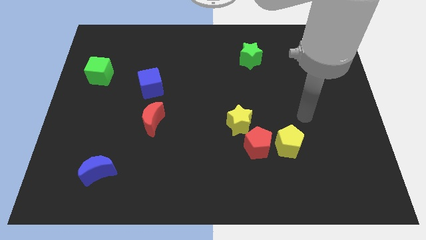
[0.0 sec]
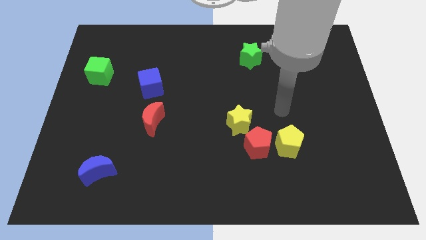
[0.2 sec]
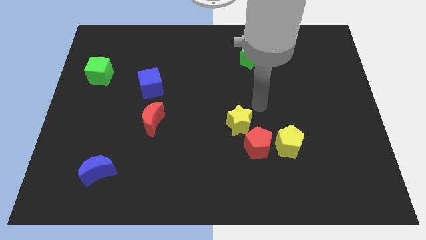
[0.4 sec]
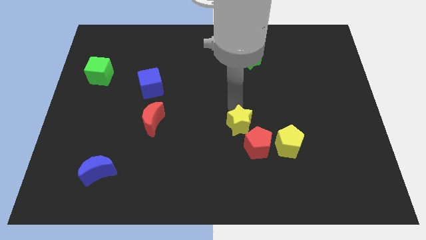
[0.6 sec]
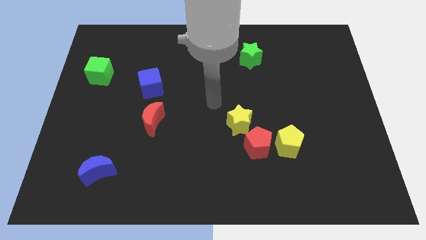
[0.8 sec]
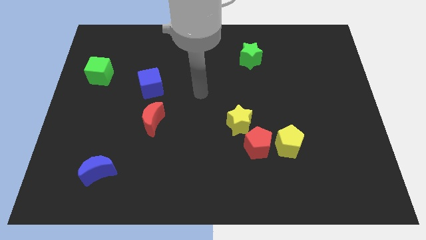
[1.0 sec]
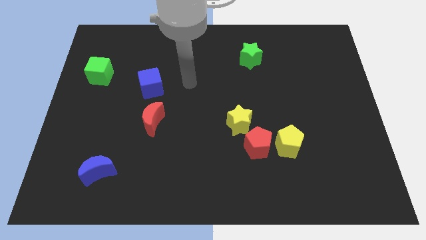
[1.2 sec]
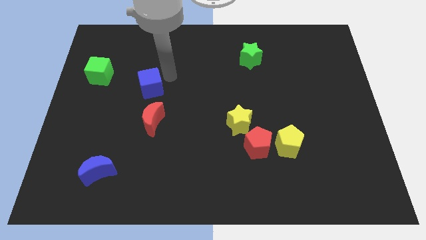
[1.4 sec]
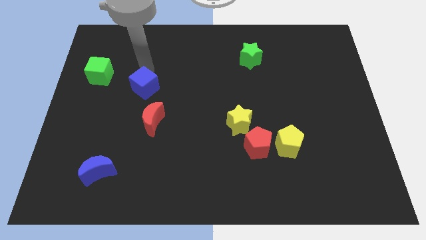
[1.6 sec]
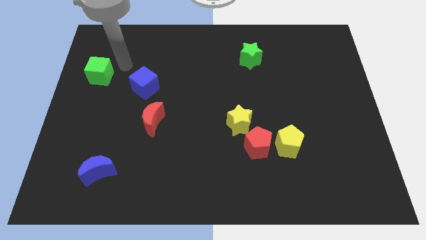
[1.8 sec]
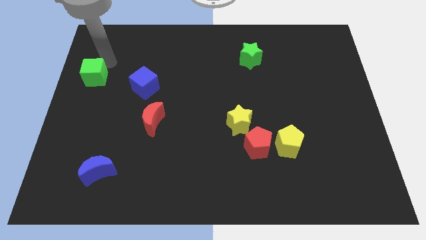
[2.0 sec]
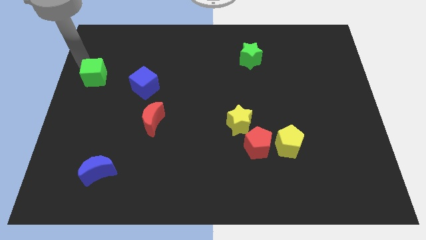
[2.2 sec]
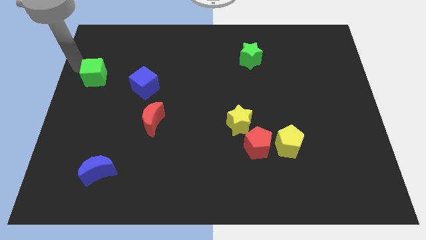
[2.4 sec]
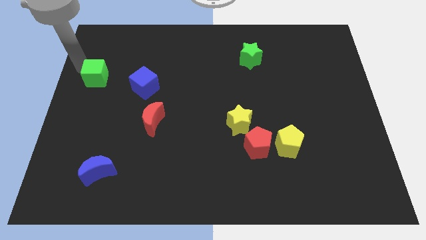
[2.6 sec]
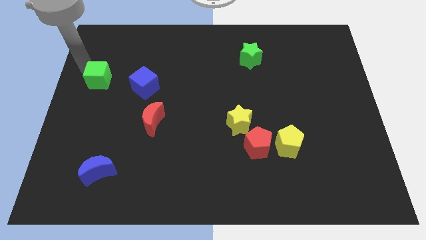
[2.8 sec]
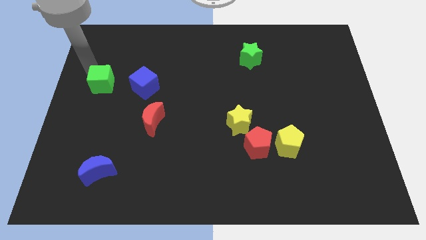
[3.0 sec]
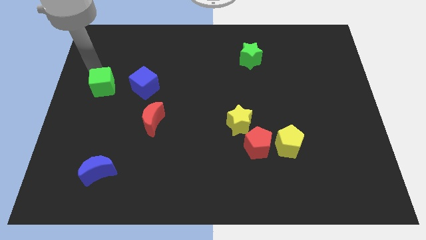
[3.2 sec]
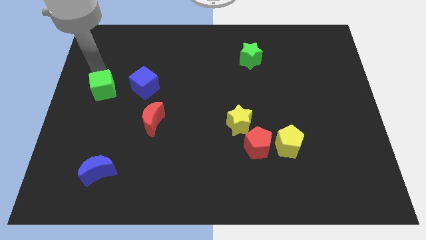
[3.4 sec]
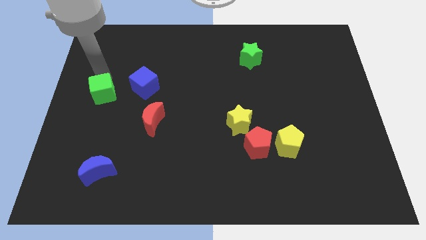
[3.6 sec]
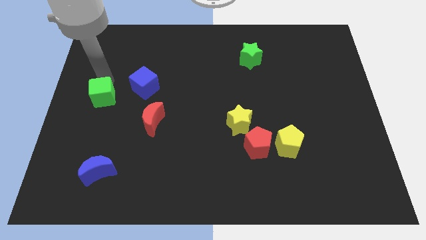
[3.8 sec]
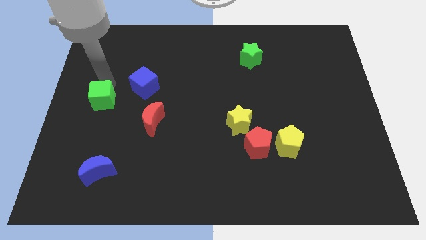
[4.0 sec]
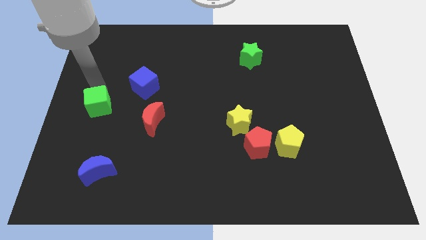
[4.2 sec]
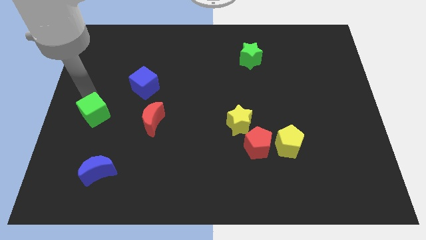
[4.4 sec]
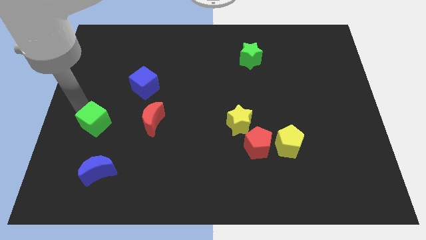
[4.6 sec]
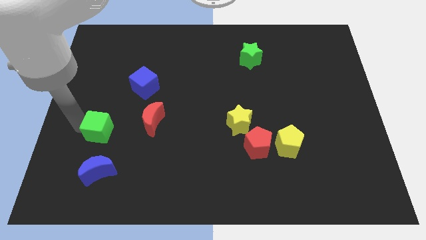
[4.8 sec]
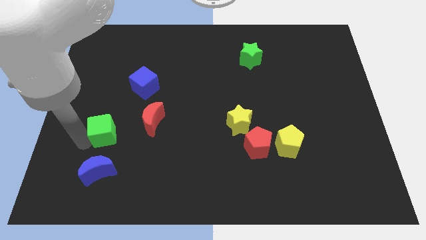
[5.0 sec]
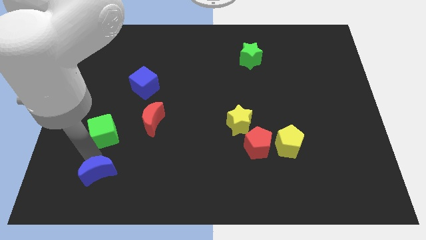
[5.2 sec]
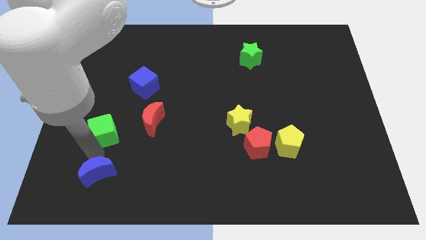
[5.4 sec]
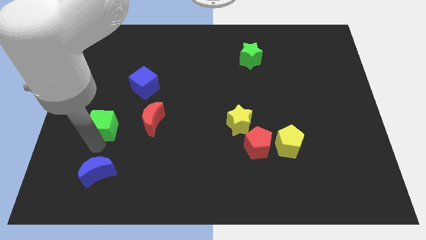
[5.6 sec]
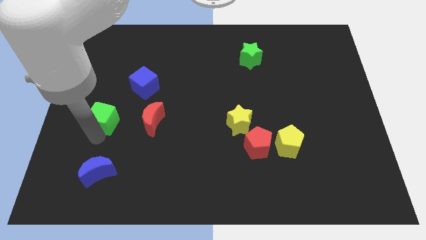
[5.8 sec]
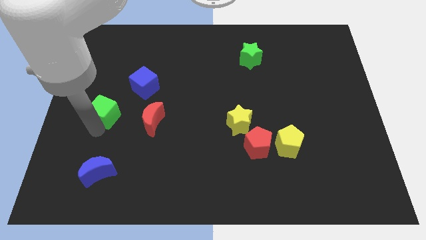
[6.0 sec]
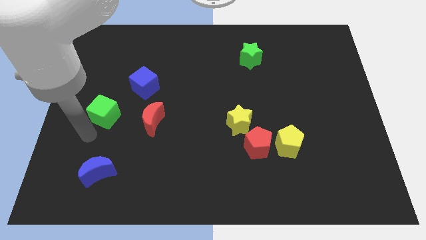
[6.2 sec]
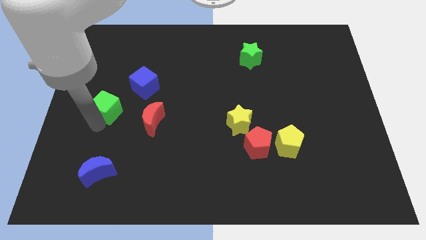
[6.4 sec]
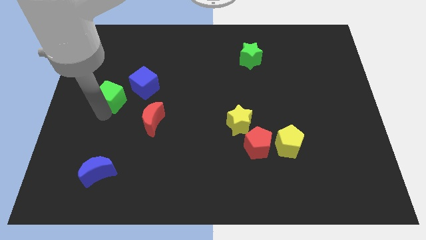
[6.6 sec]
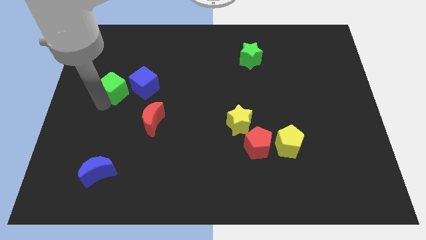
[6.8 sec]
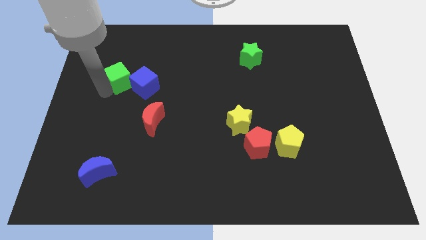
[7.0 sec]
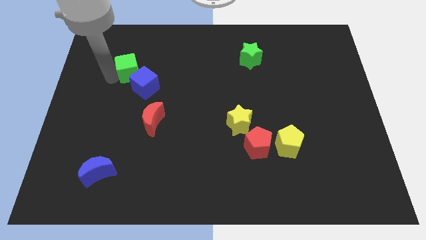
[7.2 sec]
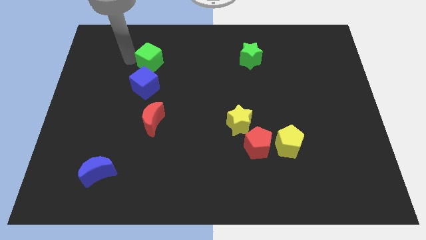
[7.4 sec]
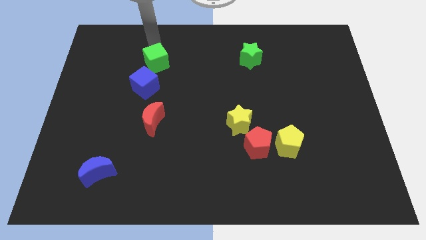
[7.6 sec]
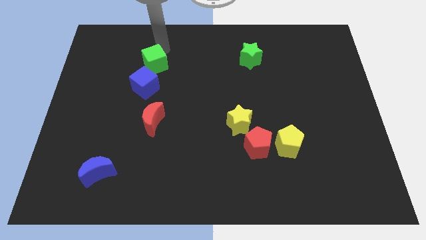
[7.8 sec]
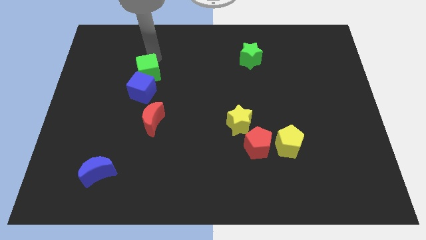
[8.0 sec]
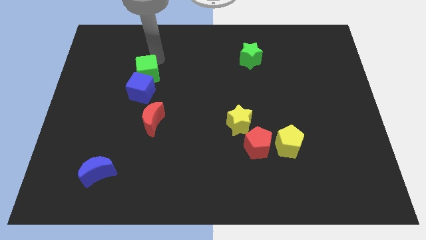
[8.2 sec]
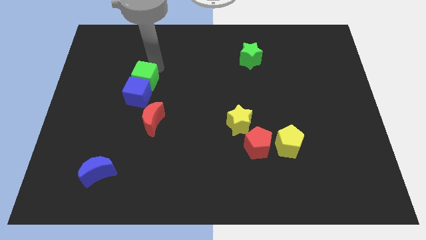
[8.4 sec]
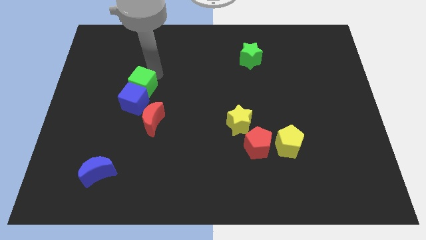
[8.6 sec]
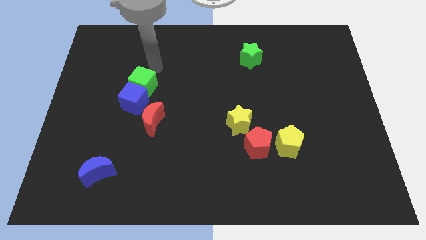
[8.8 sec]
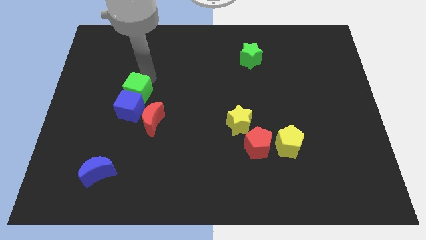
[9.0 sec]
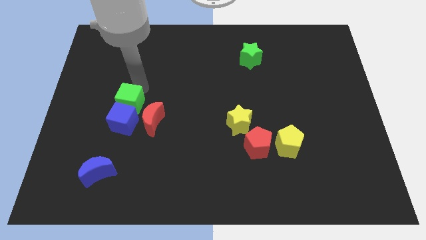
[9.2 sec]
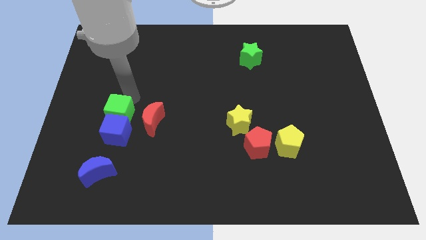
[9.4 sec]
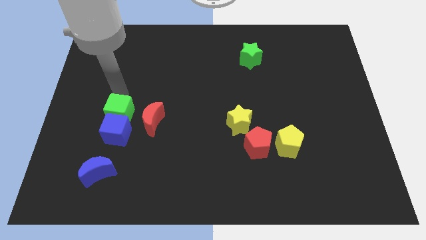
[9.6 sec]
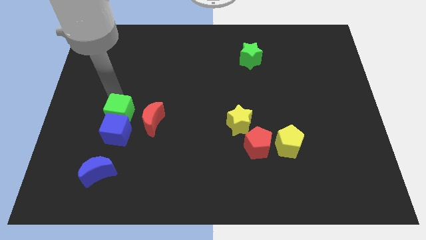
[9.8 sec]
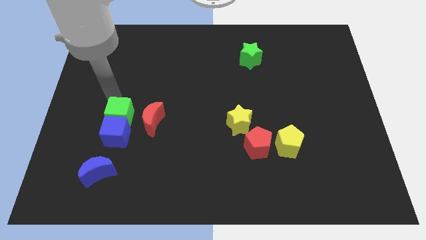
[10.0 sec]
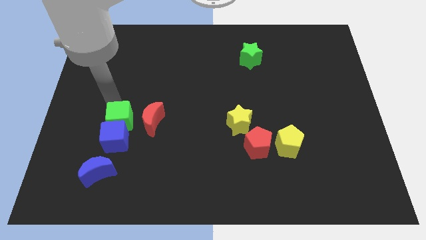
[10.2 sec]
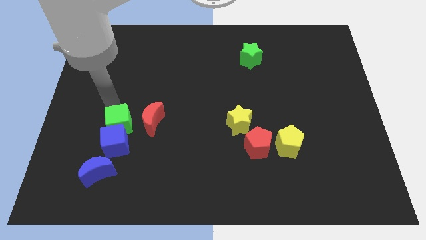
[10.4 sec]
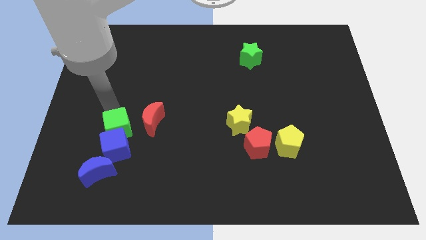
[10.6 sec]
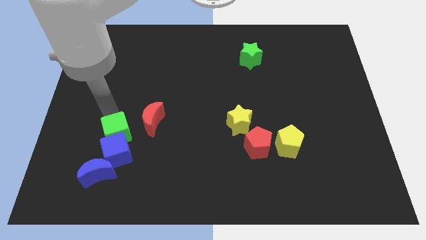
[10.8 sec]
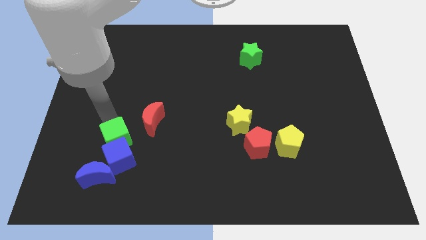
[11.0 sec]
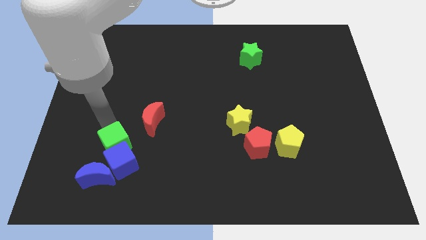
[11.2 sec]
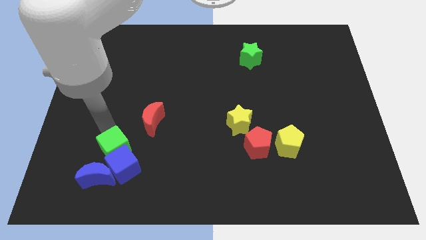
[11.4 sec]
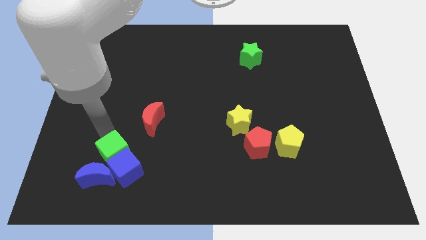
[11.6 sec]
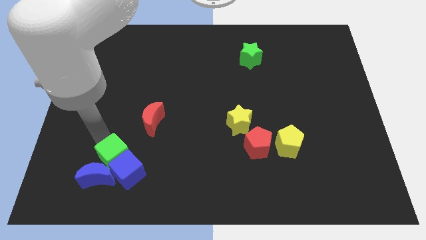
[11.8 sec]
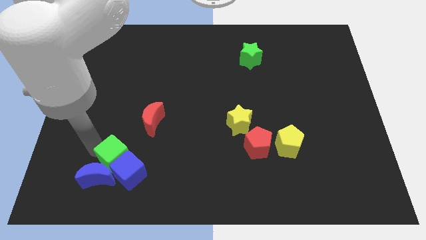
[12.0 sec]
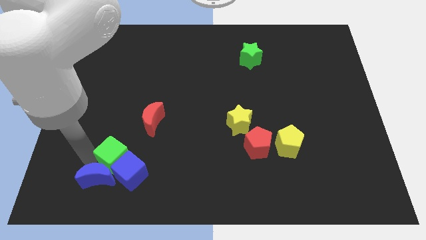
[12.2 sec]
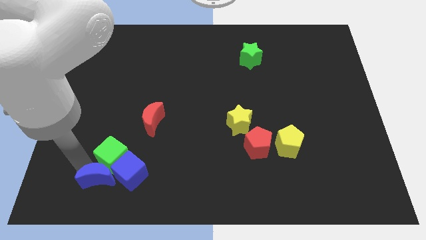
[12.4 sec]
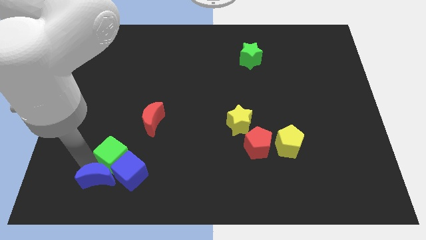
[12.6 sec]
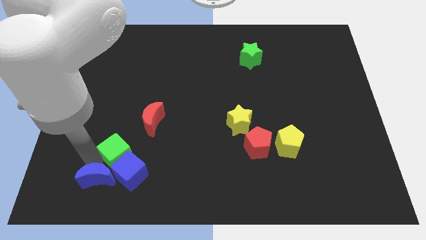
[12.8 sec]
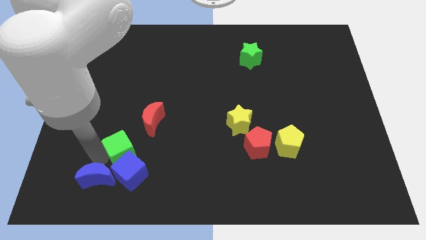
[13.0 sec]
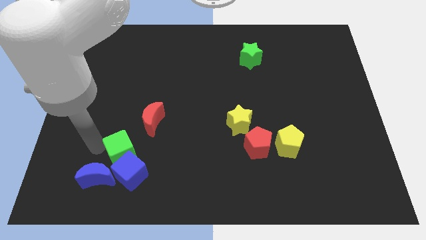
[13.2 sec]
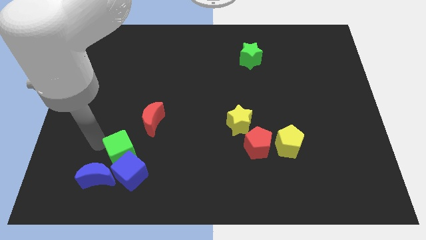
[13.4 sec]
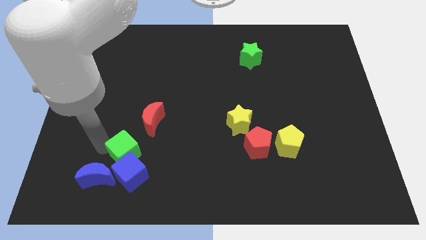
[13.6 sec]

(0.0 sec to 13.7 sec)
slide the green cube to the bottom of the red moon
